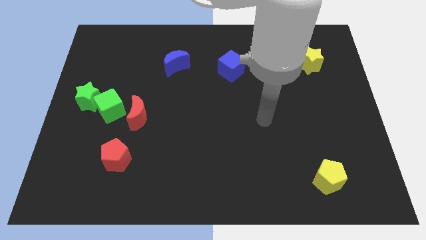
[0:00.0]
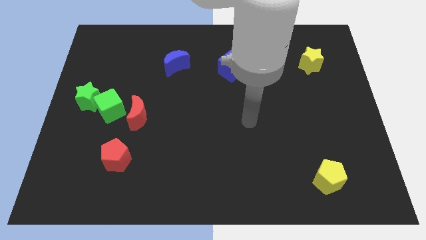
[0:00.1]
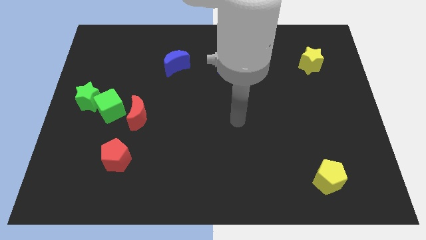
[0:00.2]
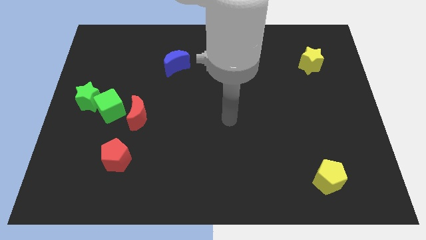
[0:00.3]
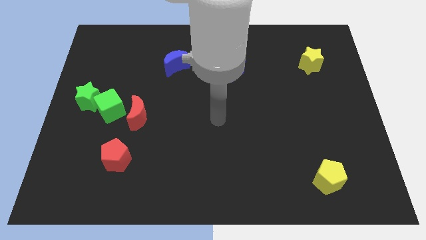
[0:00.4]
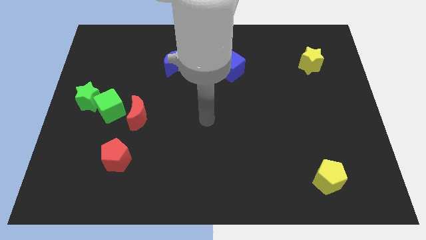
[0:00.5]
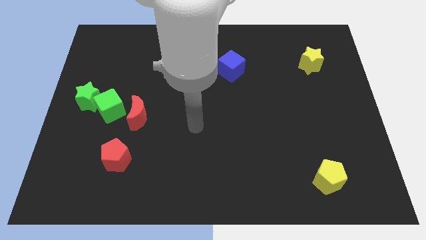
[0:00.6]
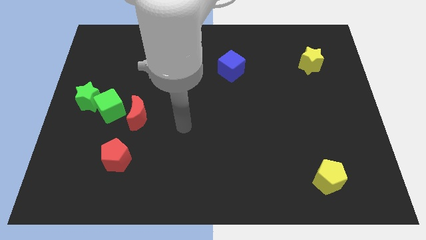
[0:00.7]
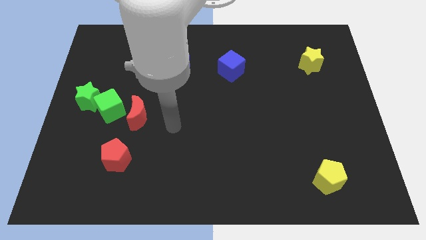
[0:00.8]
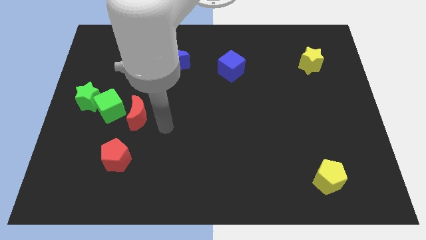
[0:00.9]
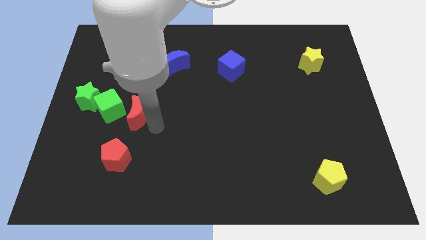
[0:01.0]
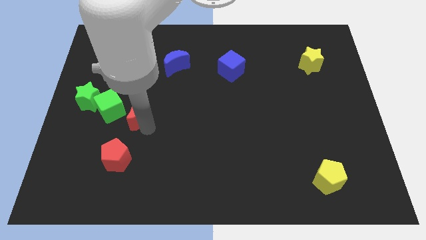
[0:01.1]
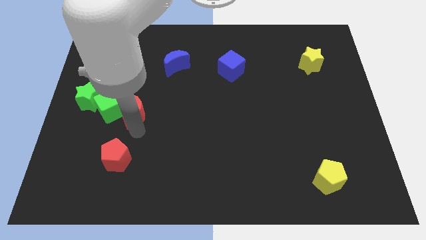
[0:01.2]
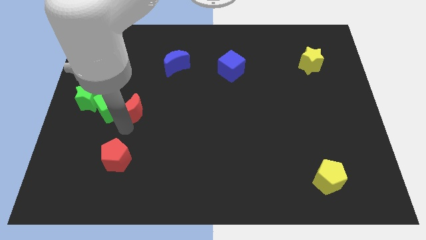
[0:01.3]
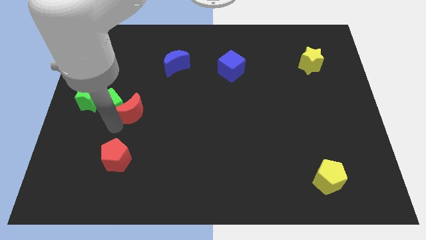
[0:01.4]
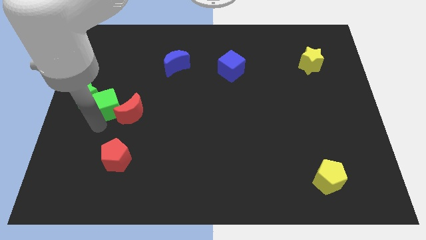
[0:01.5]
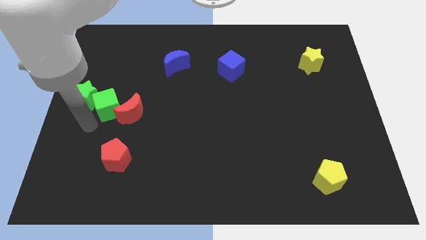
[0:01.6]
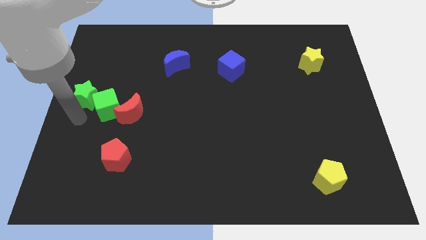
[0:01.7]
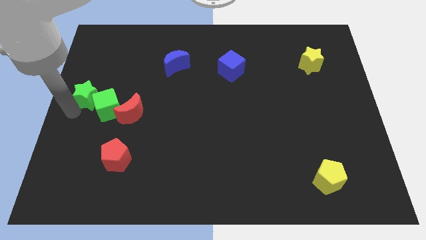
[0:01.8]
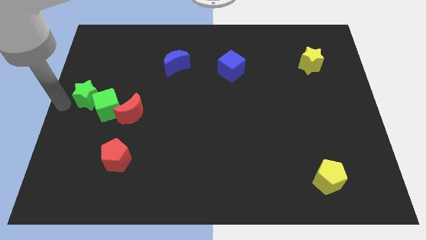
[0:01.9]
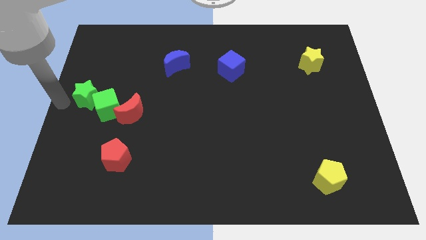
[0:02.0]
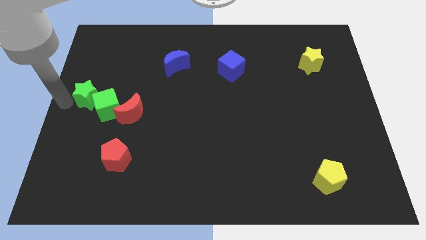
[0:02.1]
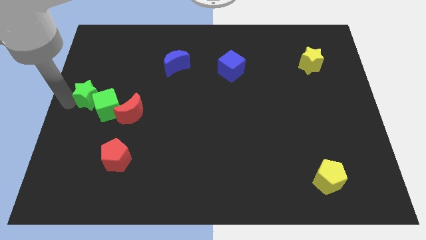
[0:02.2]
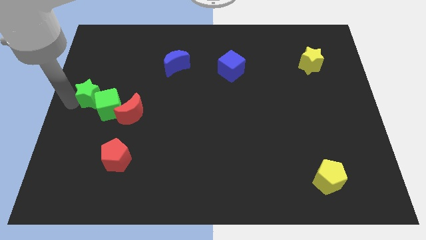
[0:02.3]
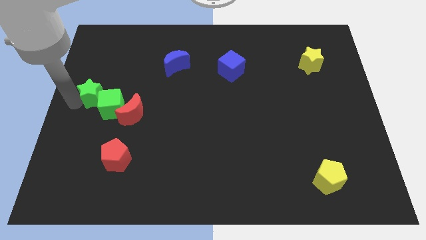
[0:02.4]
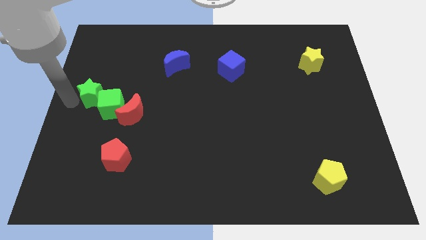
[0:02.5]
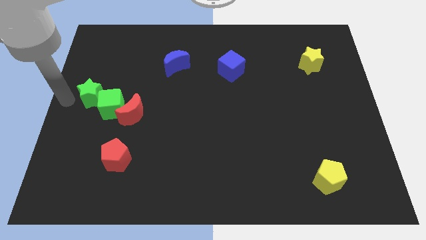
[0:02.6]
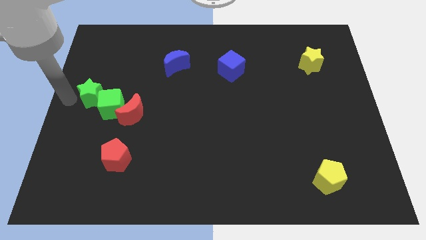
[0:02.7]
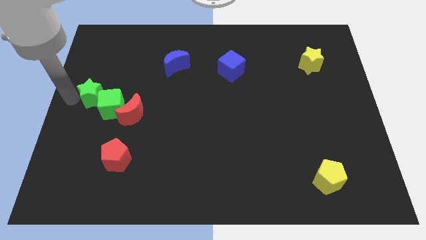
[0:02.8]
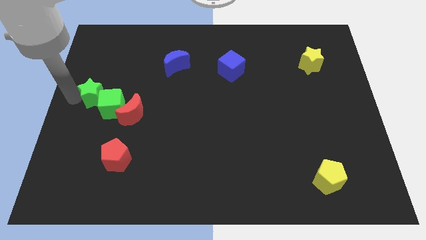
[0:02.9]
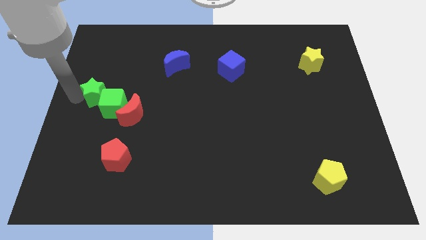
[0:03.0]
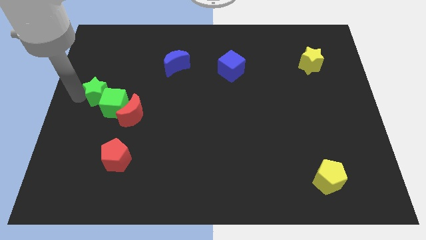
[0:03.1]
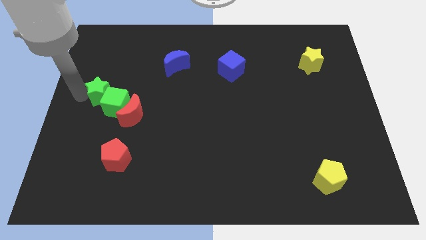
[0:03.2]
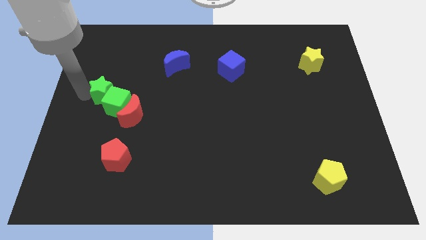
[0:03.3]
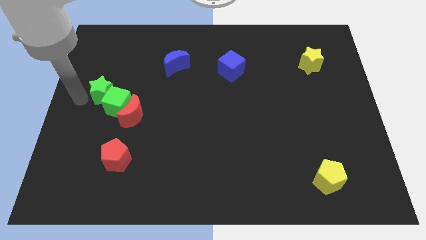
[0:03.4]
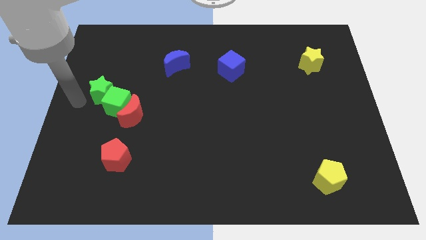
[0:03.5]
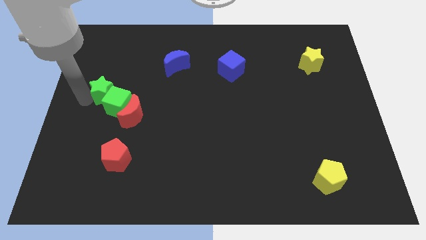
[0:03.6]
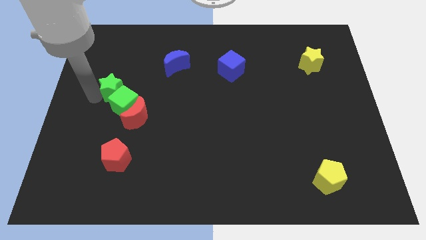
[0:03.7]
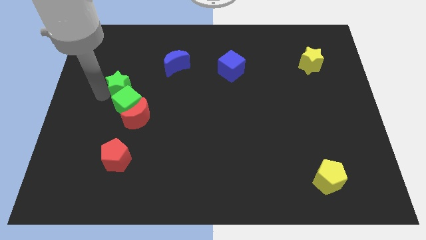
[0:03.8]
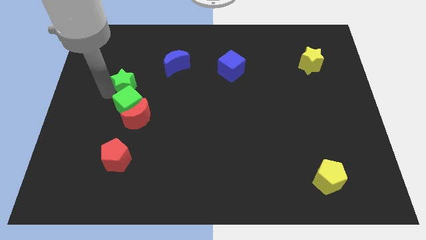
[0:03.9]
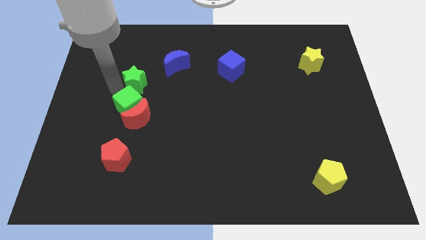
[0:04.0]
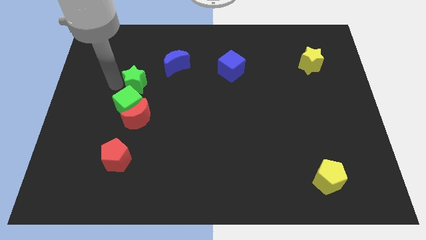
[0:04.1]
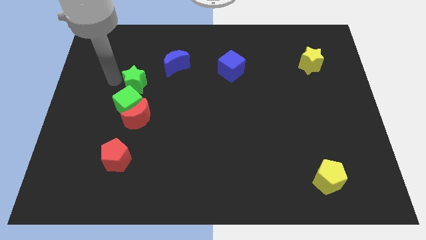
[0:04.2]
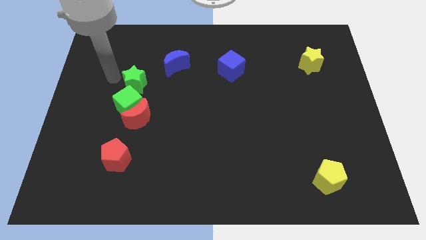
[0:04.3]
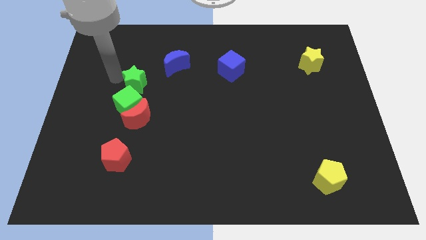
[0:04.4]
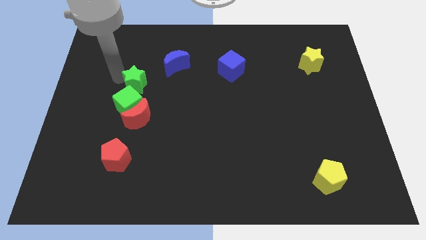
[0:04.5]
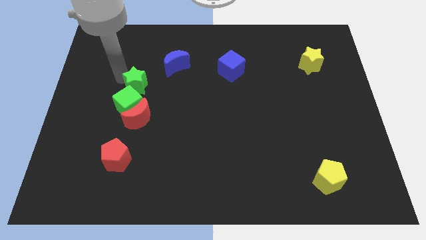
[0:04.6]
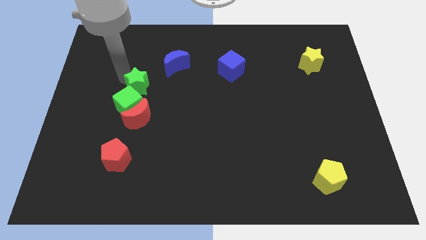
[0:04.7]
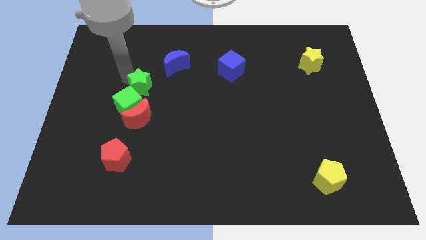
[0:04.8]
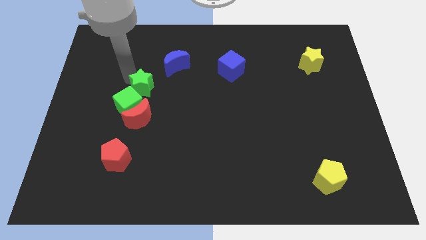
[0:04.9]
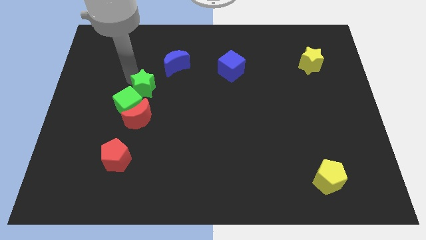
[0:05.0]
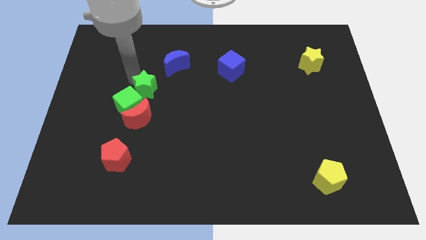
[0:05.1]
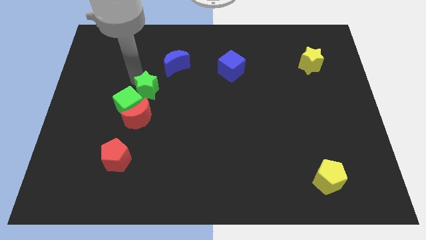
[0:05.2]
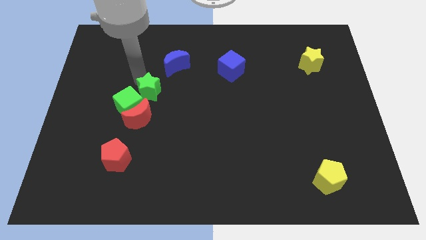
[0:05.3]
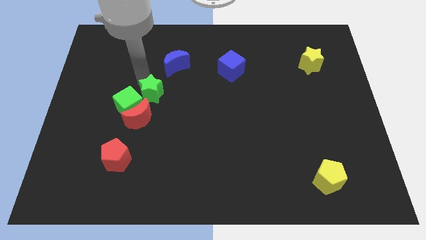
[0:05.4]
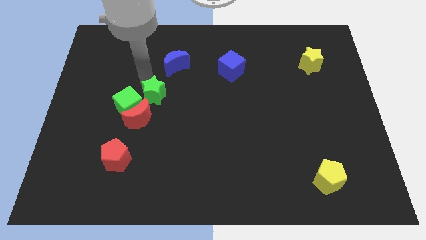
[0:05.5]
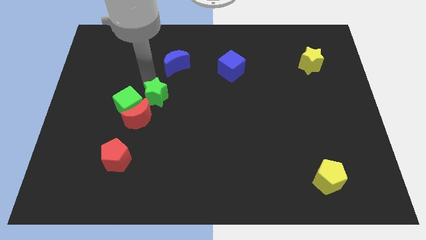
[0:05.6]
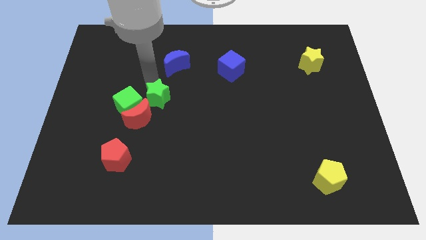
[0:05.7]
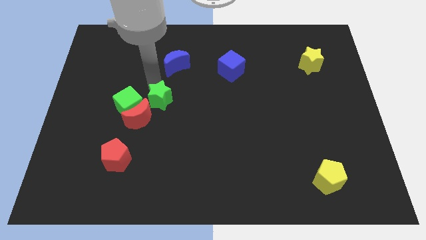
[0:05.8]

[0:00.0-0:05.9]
push the green star to the middle
